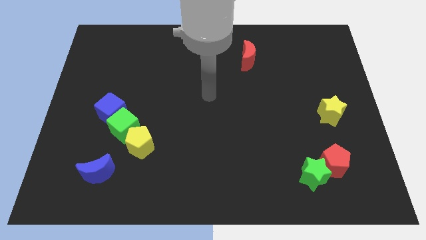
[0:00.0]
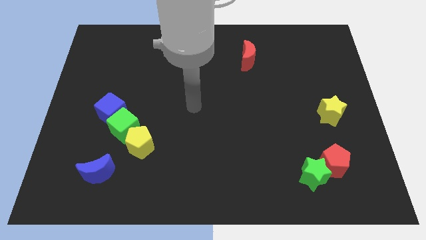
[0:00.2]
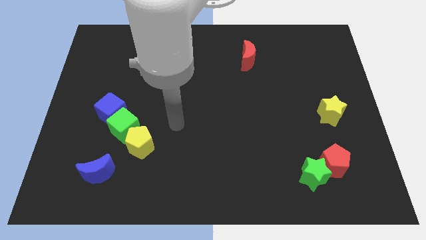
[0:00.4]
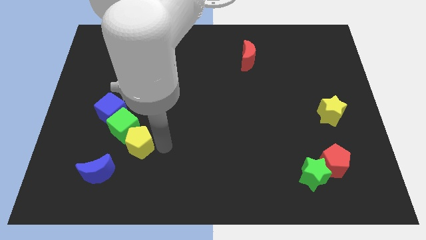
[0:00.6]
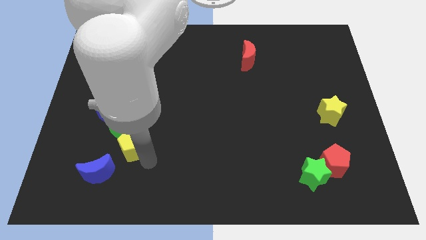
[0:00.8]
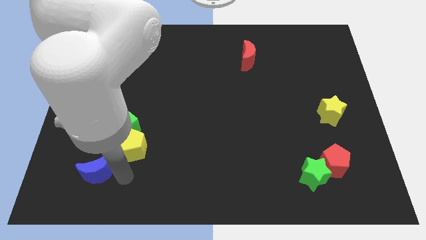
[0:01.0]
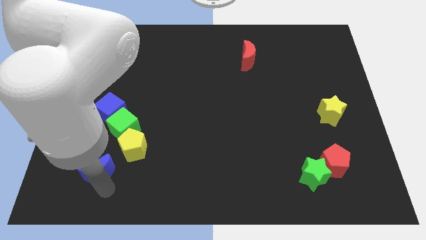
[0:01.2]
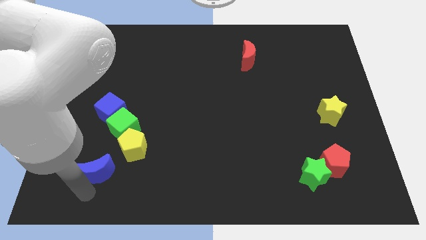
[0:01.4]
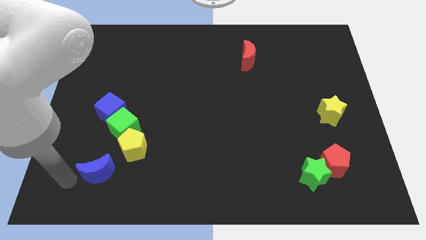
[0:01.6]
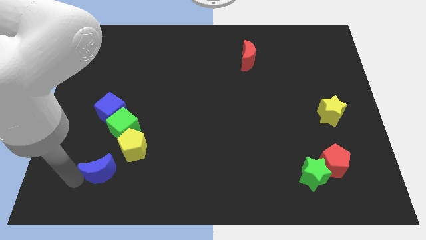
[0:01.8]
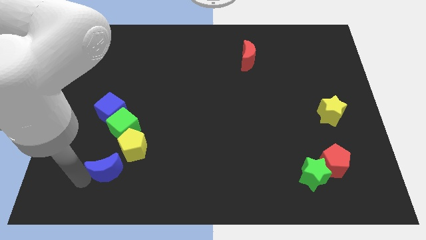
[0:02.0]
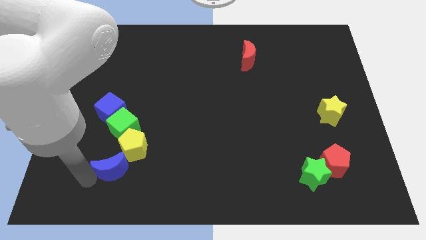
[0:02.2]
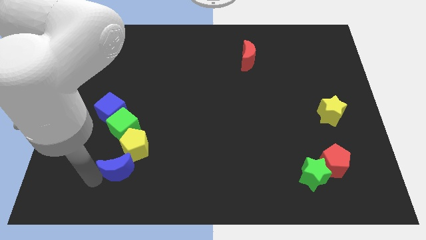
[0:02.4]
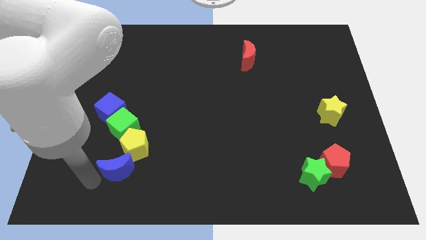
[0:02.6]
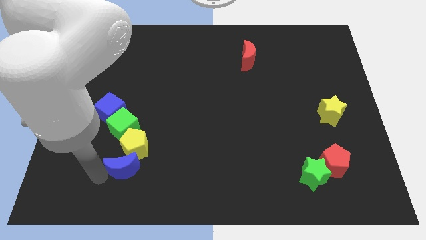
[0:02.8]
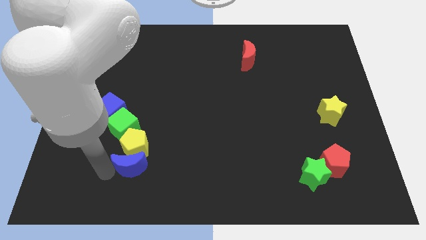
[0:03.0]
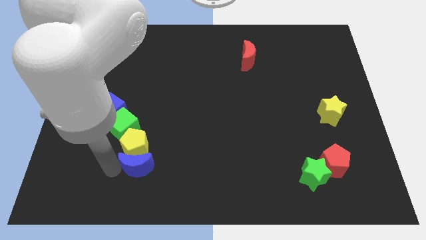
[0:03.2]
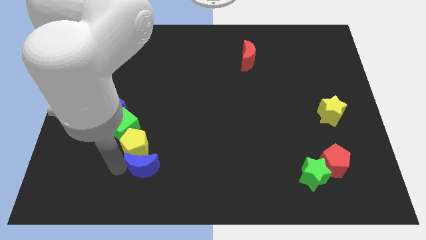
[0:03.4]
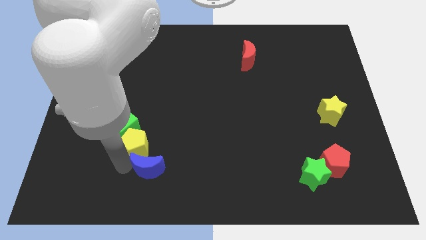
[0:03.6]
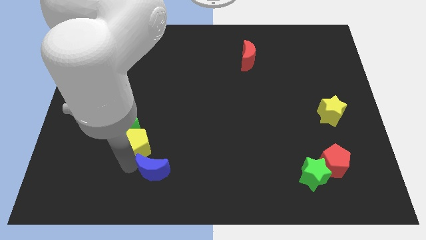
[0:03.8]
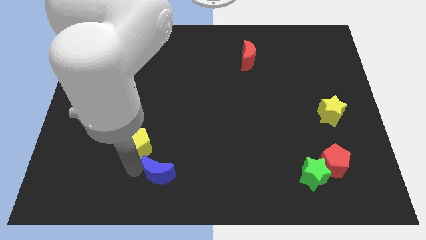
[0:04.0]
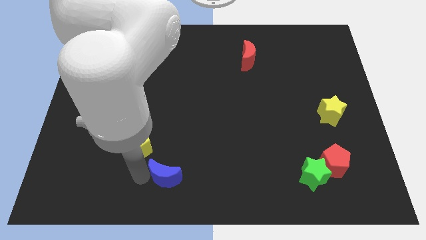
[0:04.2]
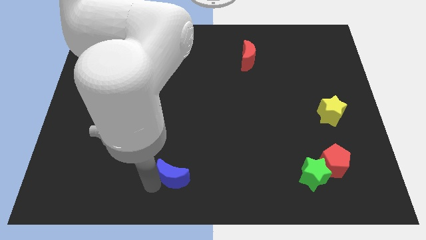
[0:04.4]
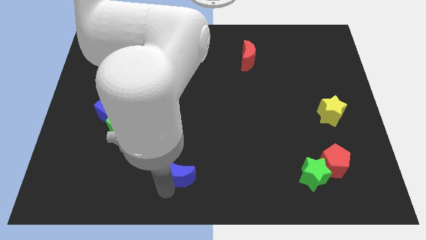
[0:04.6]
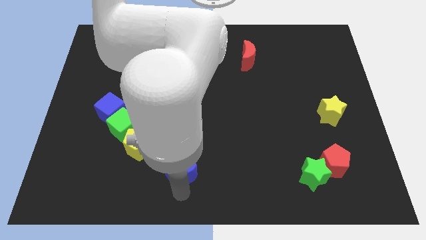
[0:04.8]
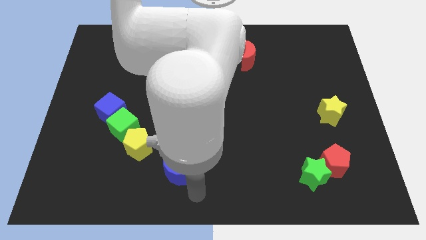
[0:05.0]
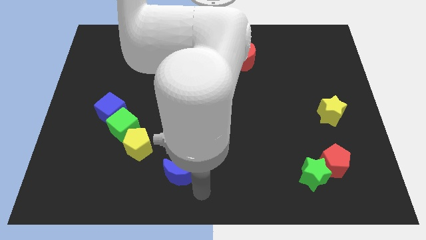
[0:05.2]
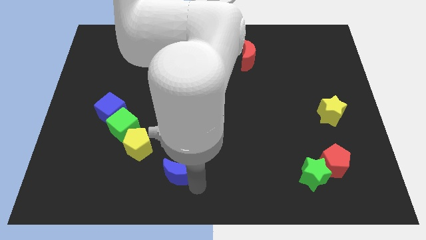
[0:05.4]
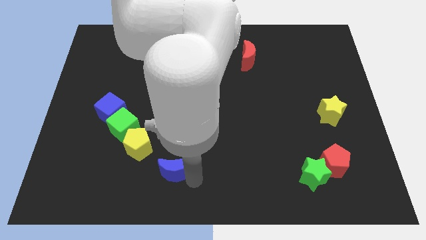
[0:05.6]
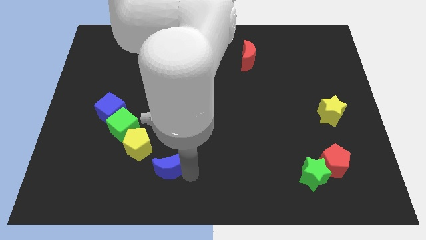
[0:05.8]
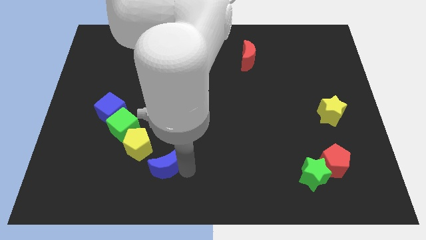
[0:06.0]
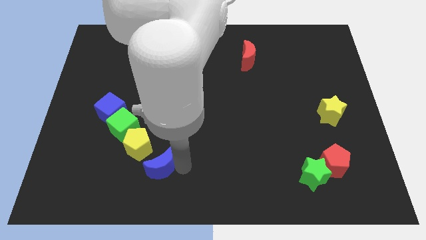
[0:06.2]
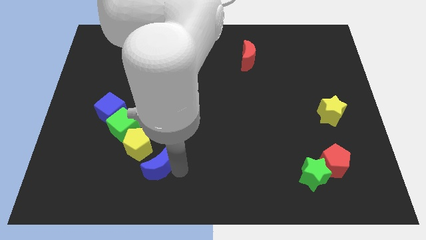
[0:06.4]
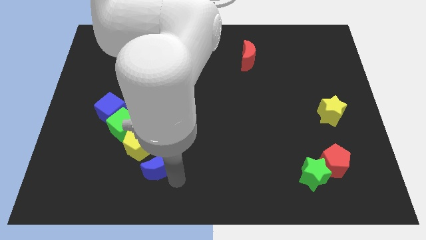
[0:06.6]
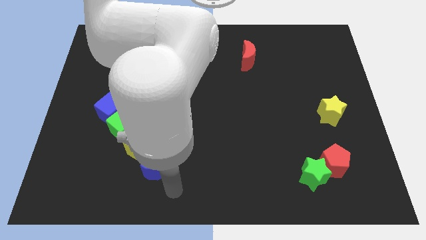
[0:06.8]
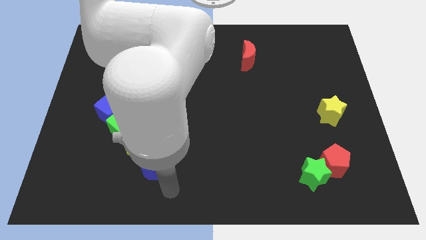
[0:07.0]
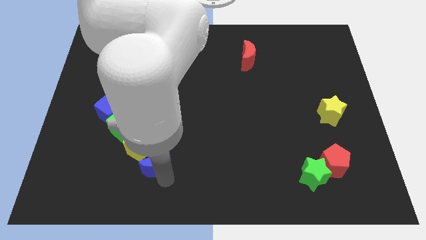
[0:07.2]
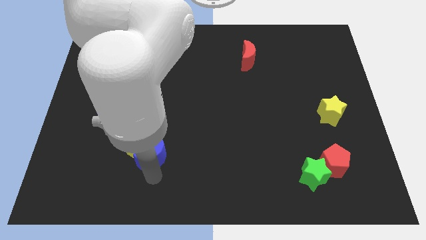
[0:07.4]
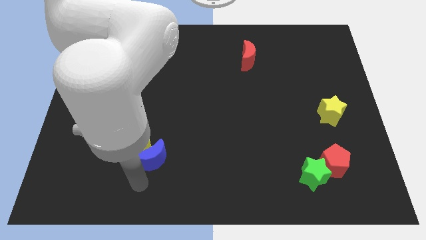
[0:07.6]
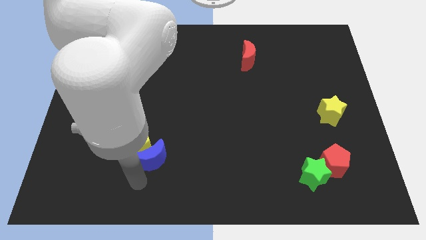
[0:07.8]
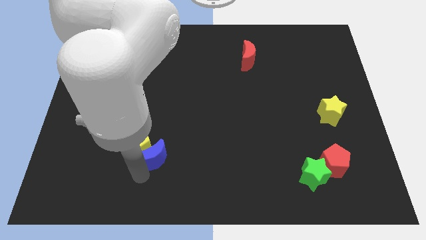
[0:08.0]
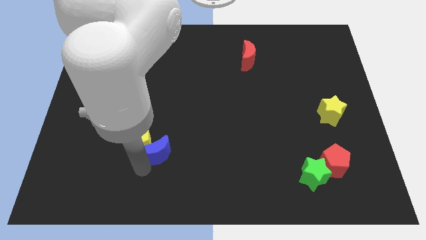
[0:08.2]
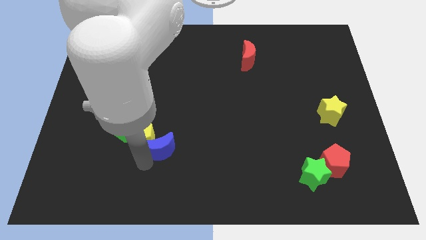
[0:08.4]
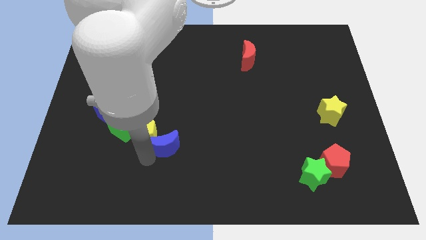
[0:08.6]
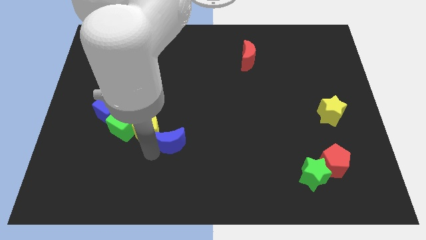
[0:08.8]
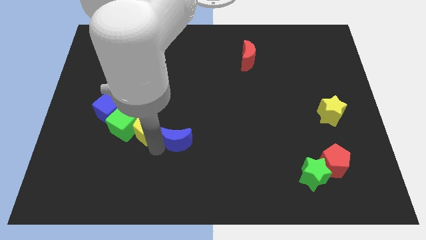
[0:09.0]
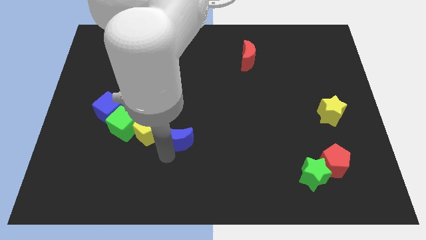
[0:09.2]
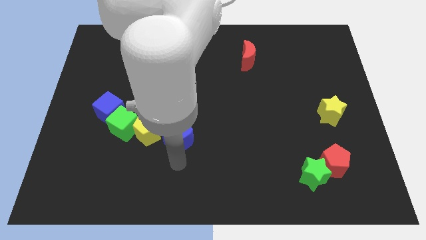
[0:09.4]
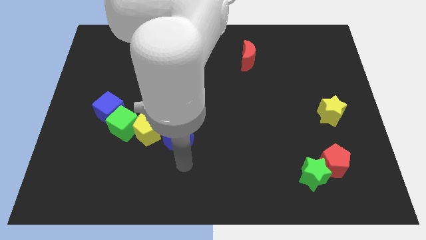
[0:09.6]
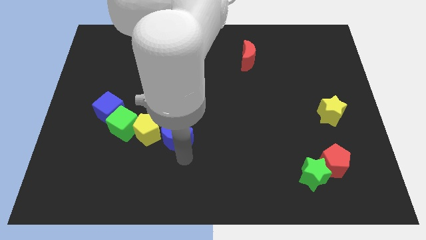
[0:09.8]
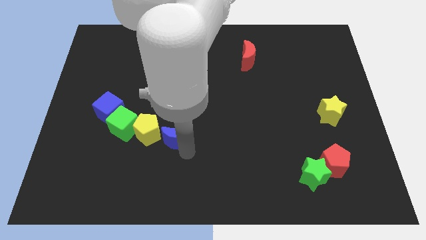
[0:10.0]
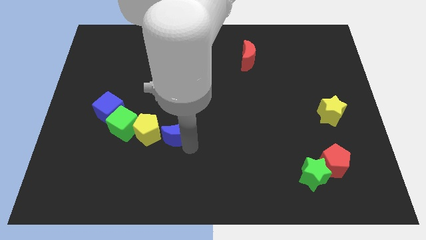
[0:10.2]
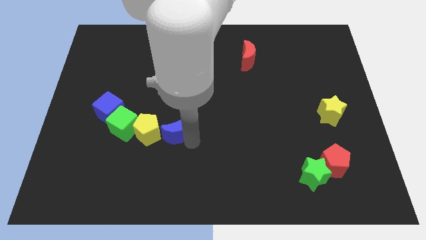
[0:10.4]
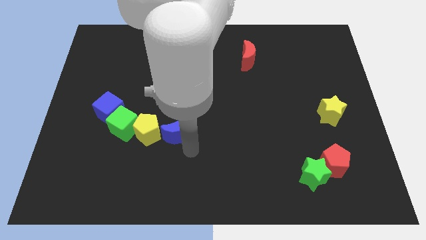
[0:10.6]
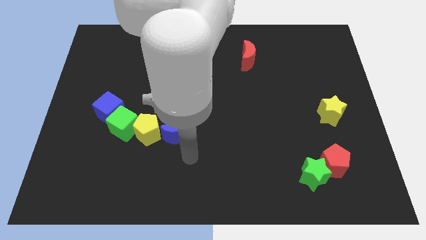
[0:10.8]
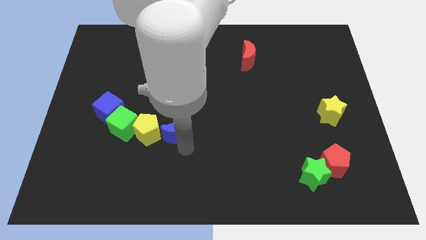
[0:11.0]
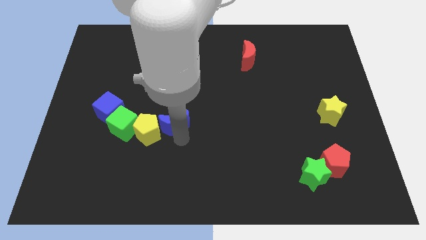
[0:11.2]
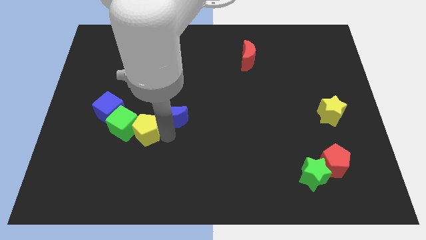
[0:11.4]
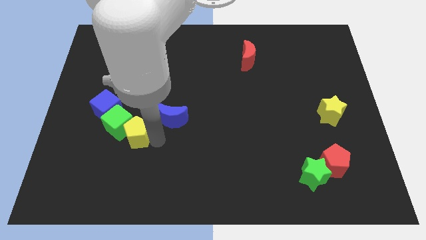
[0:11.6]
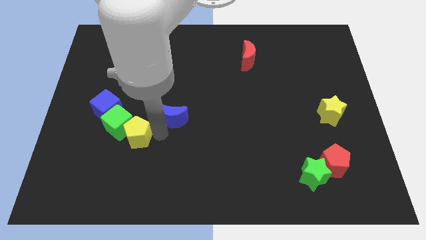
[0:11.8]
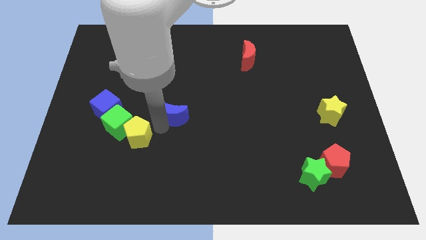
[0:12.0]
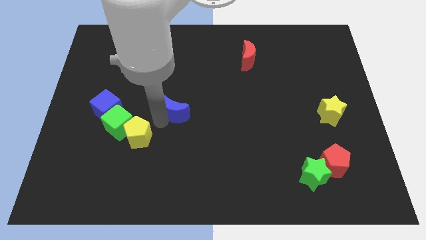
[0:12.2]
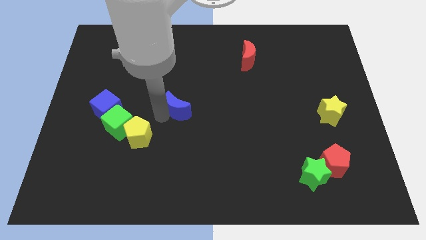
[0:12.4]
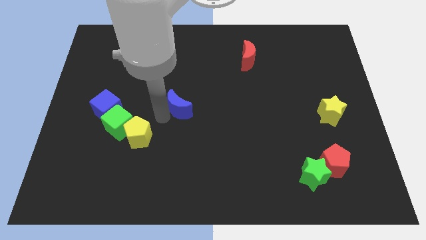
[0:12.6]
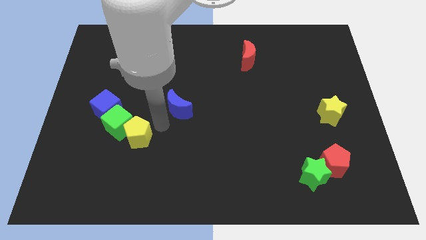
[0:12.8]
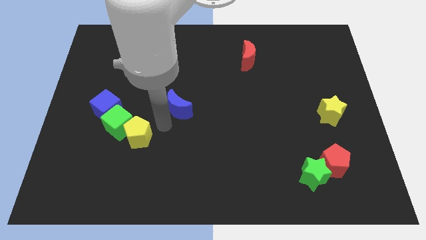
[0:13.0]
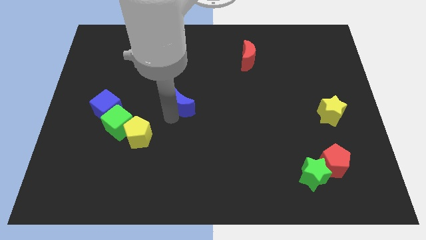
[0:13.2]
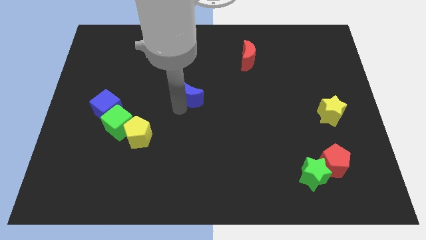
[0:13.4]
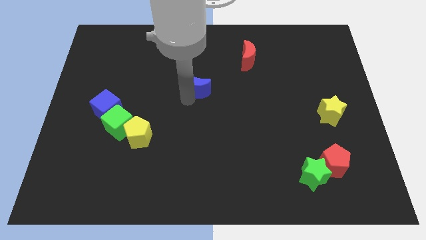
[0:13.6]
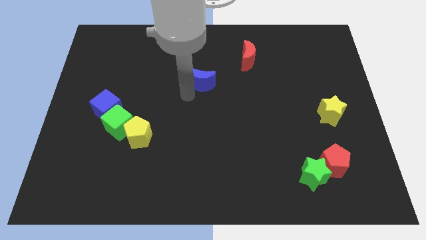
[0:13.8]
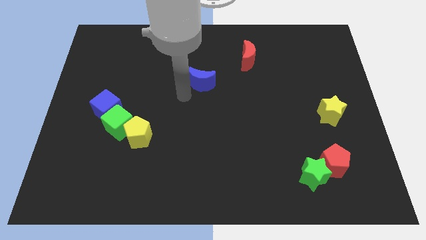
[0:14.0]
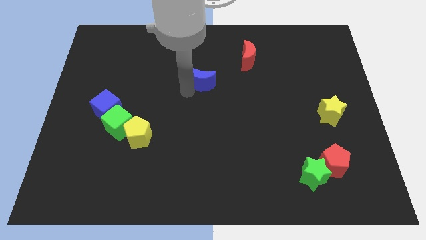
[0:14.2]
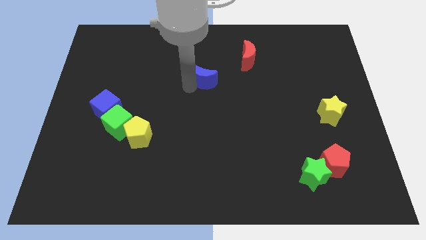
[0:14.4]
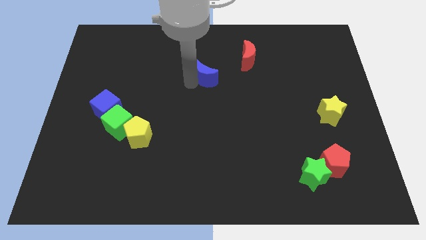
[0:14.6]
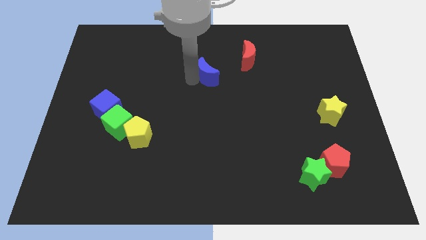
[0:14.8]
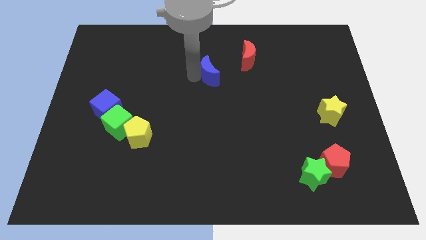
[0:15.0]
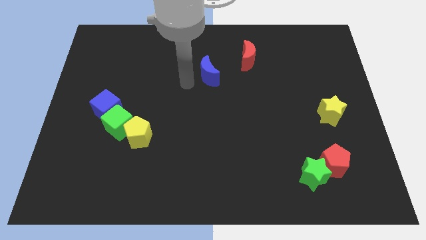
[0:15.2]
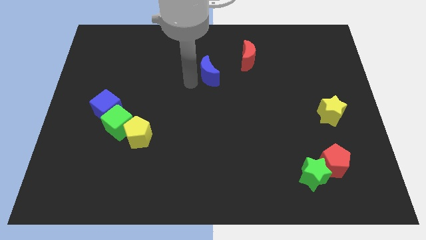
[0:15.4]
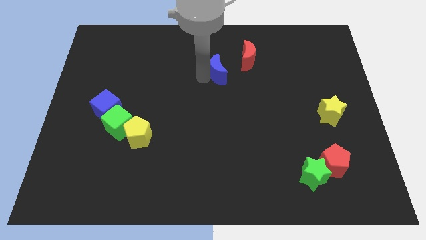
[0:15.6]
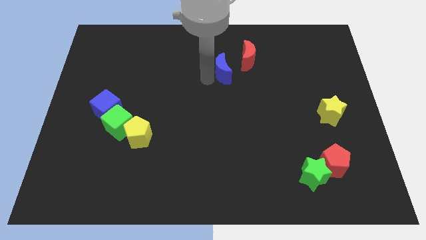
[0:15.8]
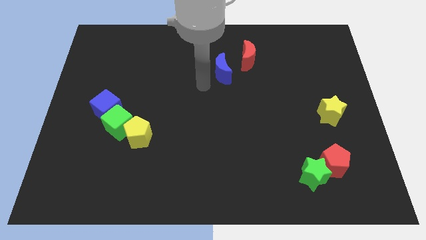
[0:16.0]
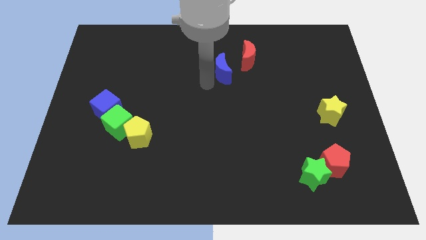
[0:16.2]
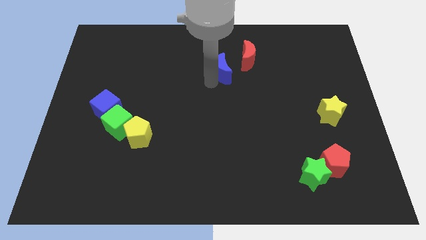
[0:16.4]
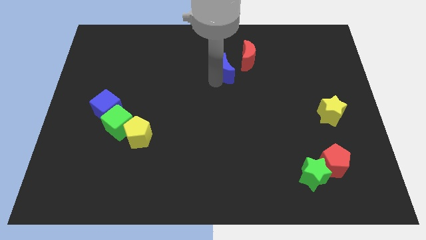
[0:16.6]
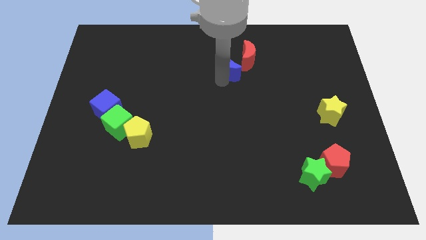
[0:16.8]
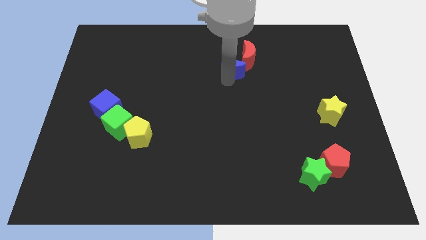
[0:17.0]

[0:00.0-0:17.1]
push the blue moon towards the red moon
